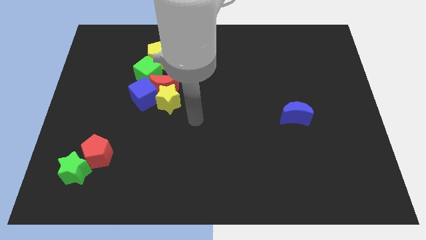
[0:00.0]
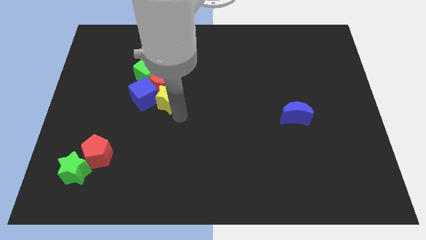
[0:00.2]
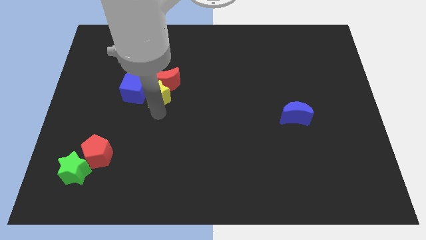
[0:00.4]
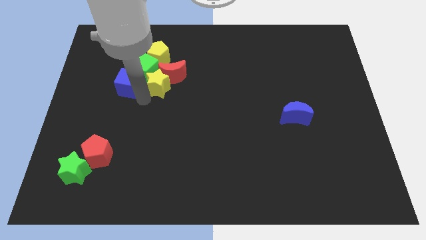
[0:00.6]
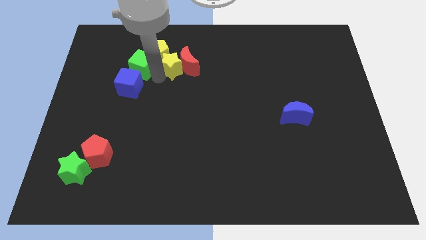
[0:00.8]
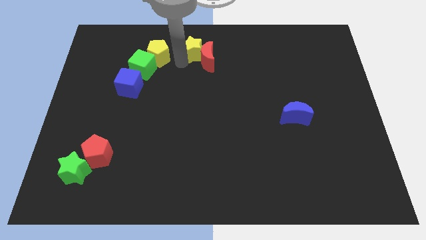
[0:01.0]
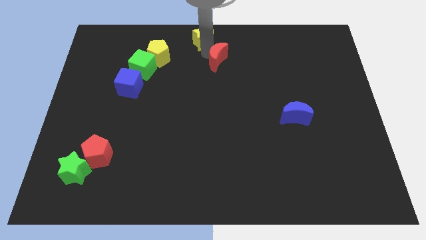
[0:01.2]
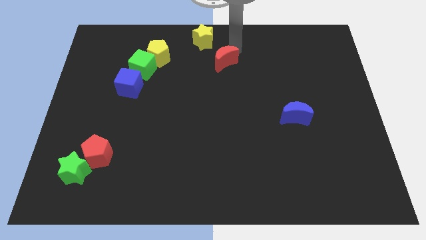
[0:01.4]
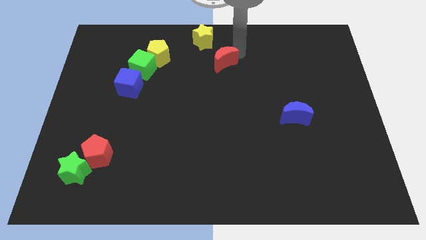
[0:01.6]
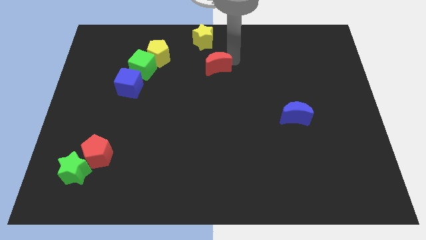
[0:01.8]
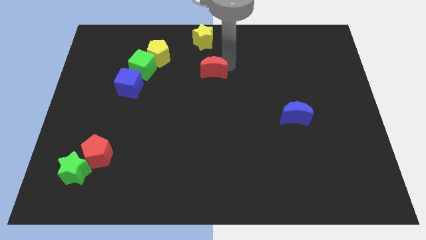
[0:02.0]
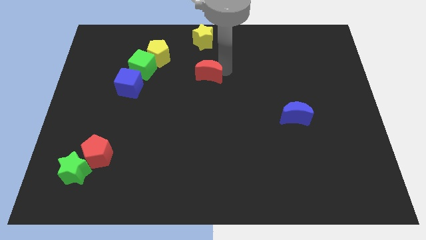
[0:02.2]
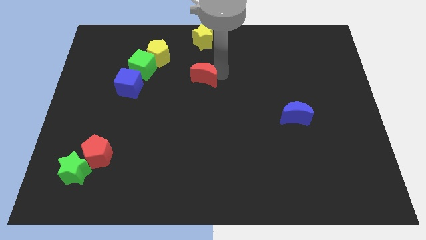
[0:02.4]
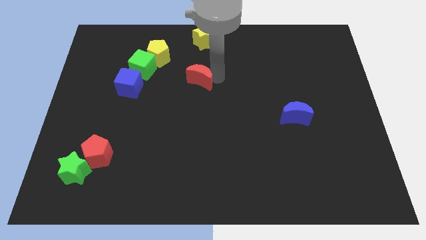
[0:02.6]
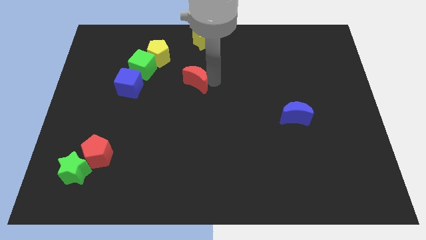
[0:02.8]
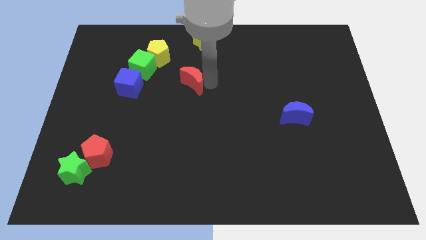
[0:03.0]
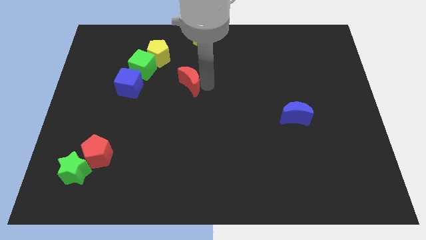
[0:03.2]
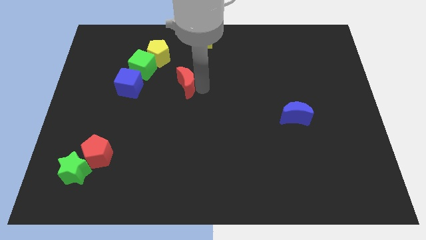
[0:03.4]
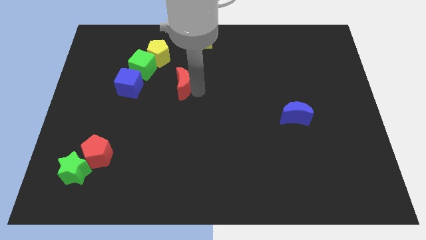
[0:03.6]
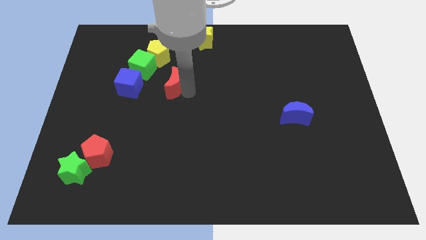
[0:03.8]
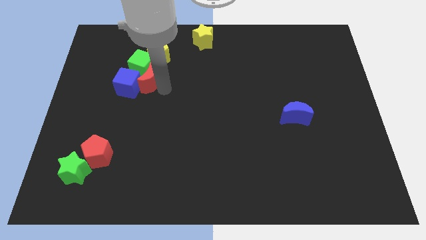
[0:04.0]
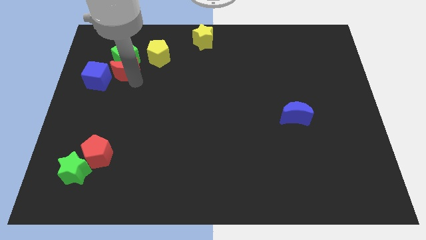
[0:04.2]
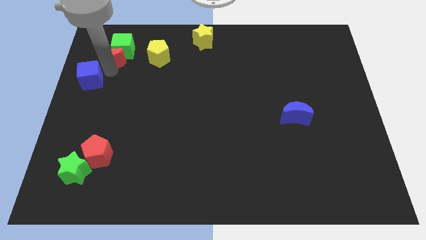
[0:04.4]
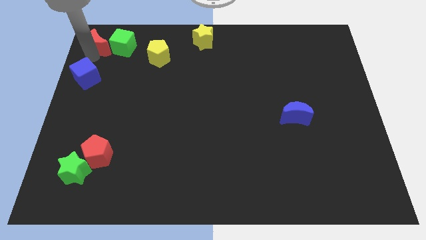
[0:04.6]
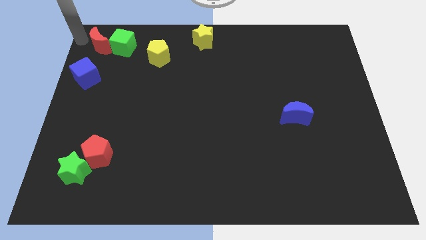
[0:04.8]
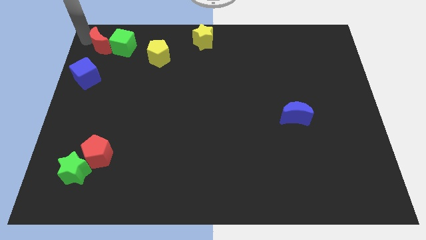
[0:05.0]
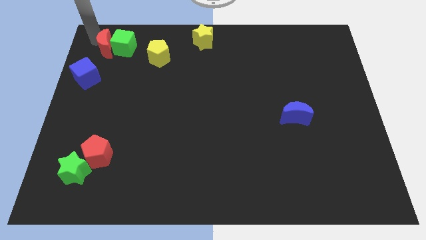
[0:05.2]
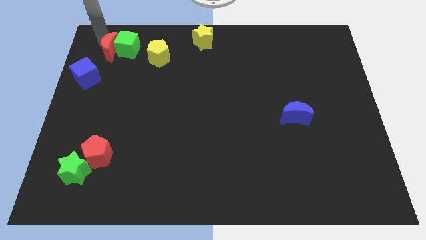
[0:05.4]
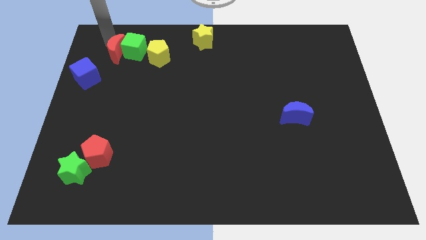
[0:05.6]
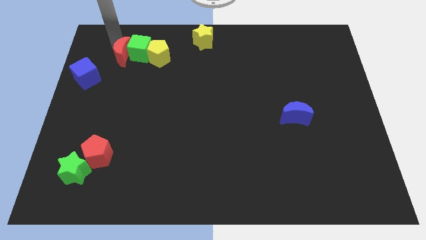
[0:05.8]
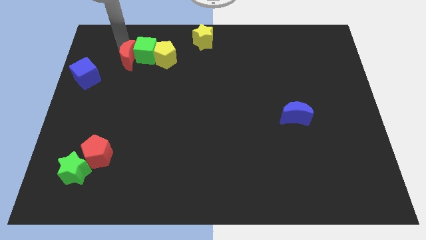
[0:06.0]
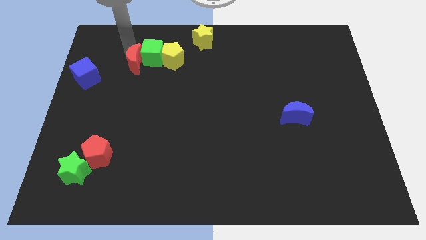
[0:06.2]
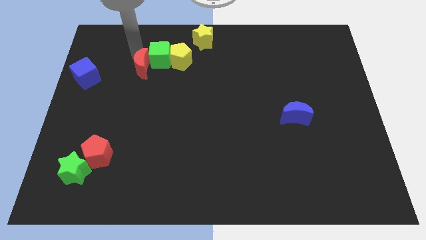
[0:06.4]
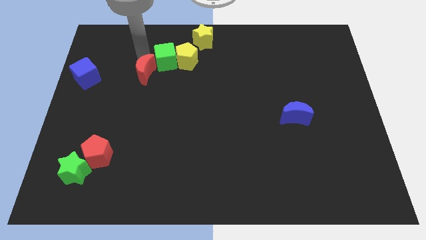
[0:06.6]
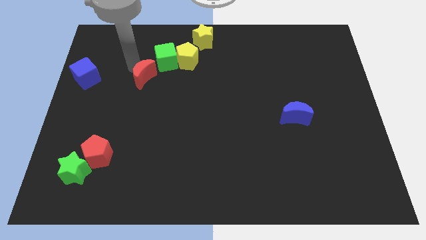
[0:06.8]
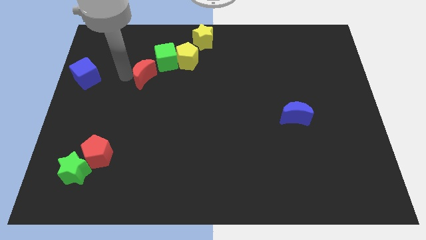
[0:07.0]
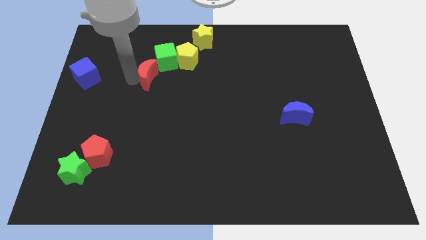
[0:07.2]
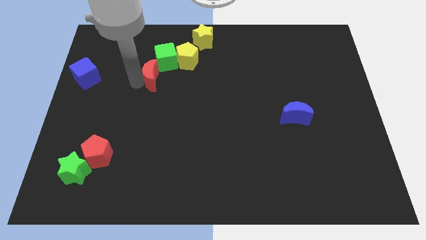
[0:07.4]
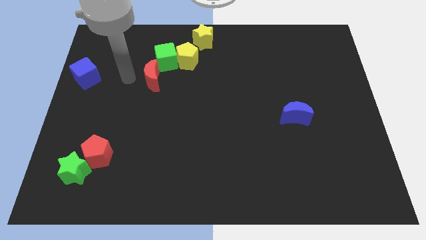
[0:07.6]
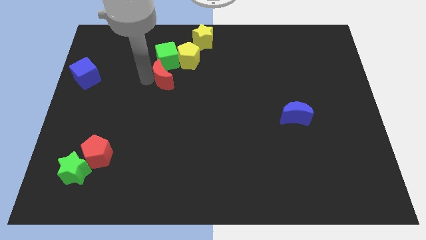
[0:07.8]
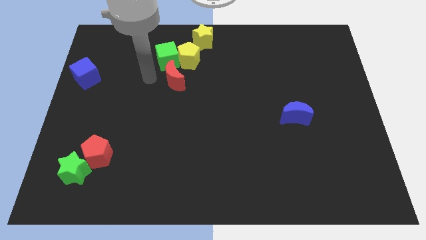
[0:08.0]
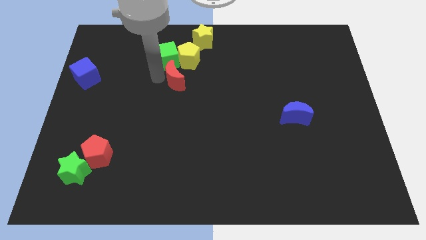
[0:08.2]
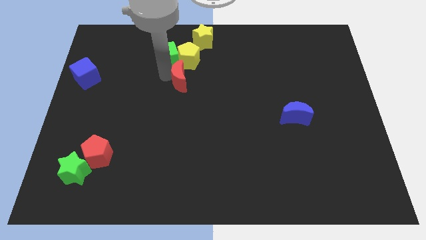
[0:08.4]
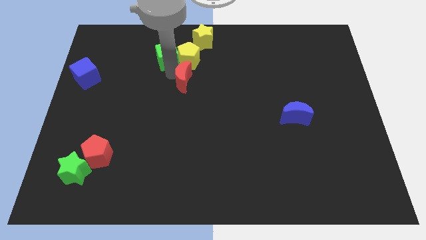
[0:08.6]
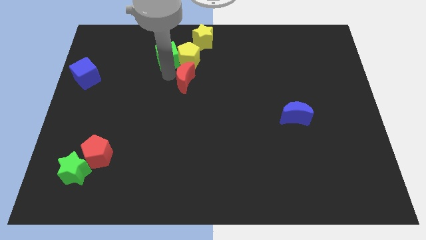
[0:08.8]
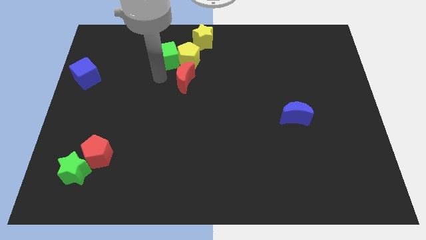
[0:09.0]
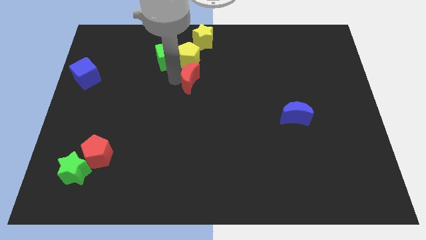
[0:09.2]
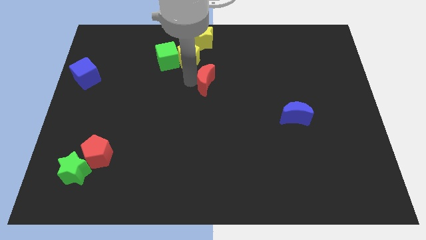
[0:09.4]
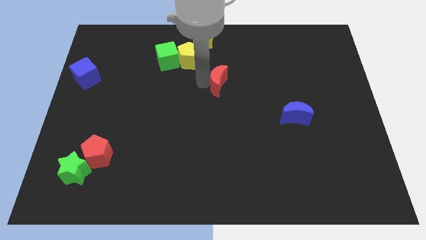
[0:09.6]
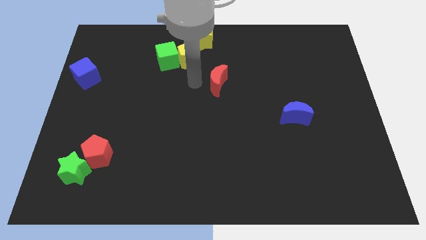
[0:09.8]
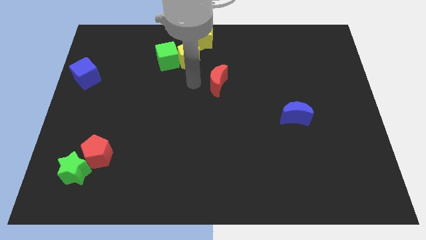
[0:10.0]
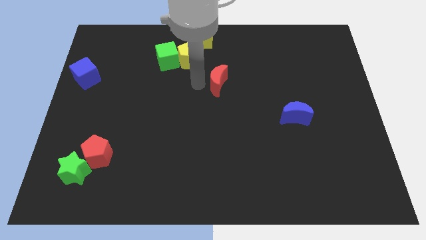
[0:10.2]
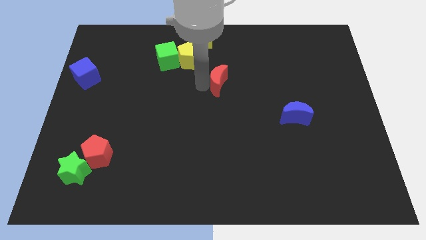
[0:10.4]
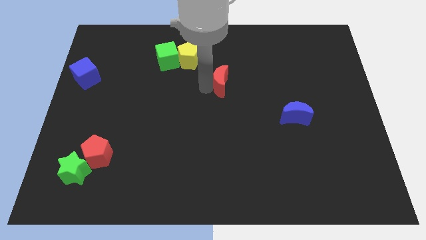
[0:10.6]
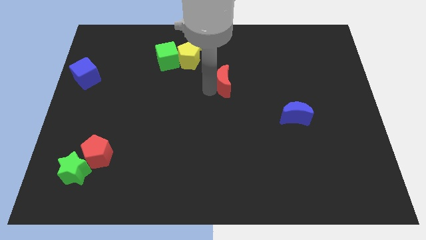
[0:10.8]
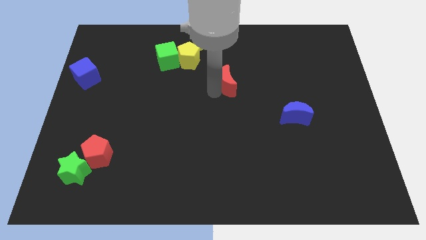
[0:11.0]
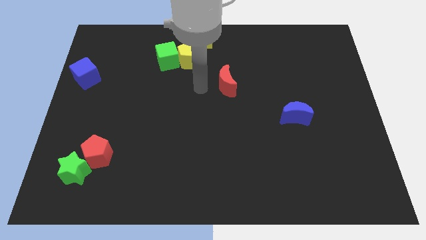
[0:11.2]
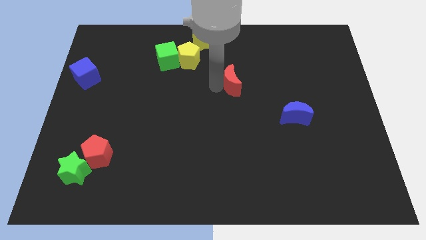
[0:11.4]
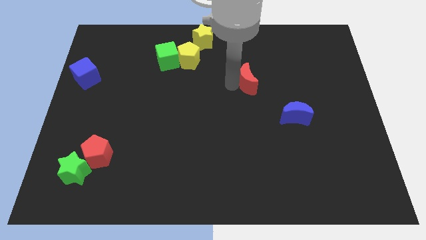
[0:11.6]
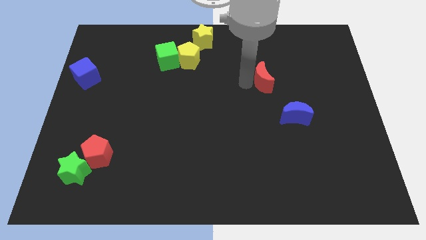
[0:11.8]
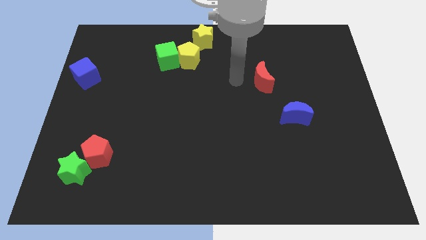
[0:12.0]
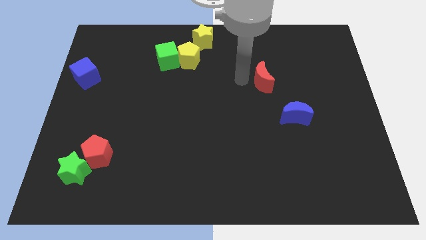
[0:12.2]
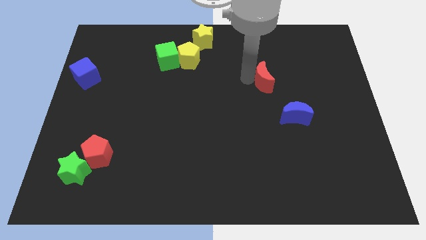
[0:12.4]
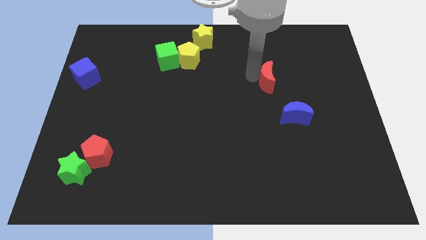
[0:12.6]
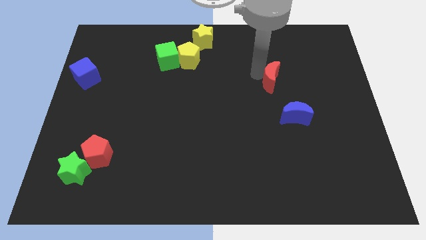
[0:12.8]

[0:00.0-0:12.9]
slide the red moon to the top side of the blue moon

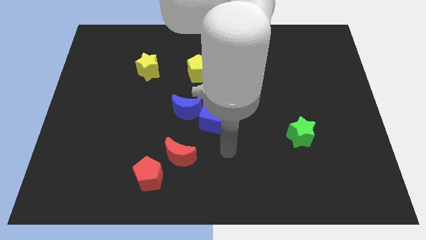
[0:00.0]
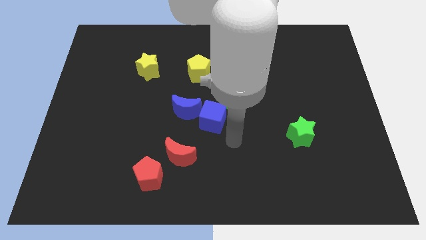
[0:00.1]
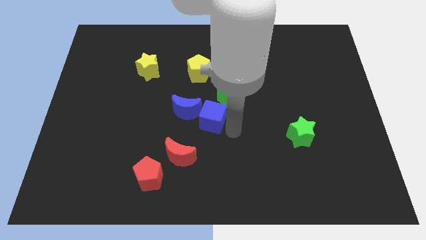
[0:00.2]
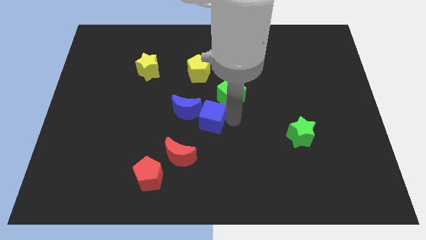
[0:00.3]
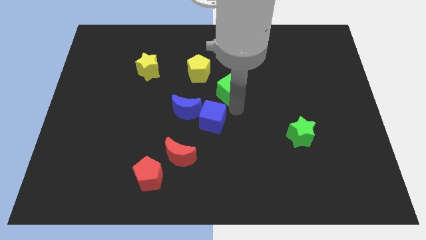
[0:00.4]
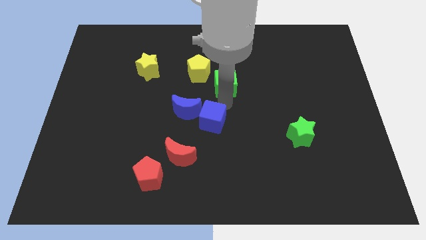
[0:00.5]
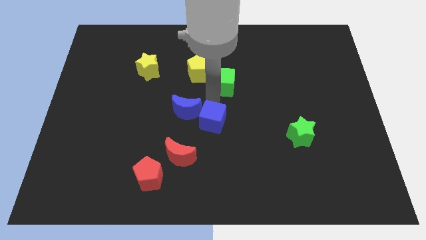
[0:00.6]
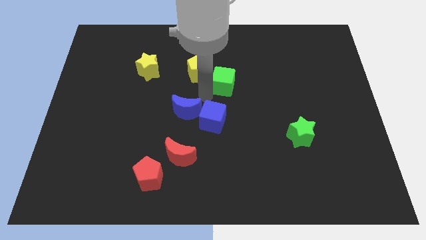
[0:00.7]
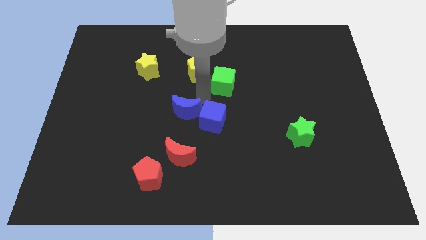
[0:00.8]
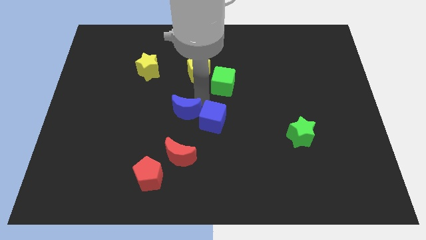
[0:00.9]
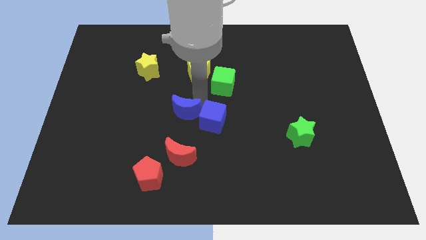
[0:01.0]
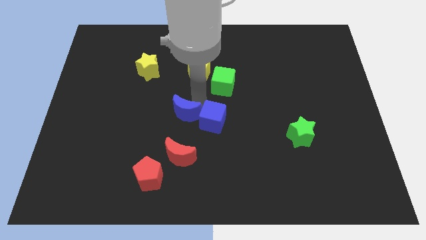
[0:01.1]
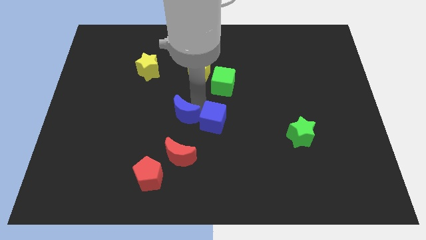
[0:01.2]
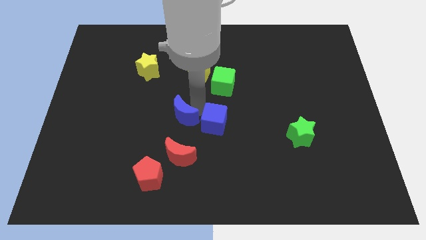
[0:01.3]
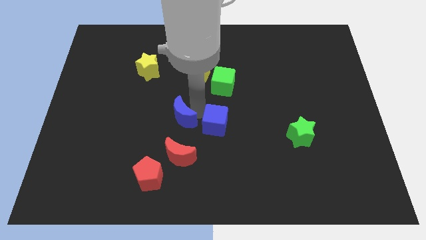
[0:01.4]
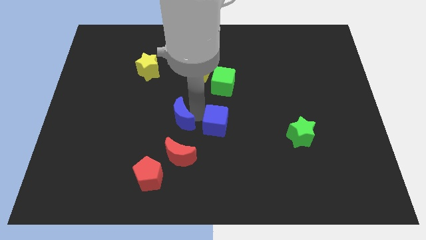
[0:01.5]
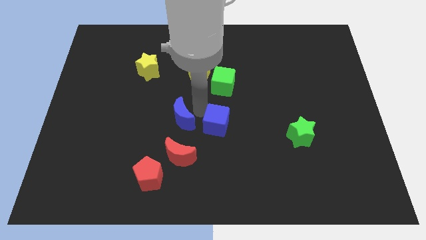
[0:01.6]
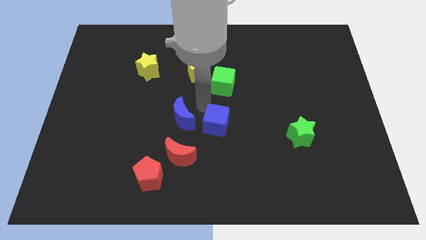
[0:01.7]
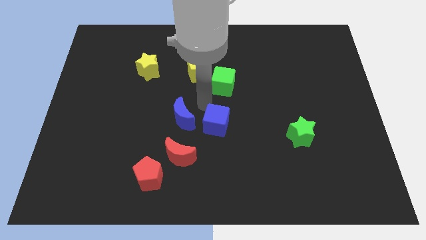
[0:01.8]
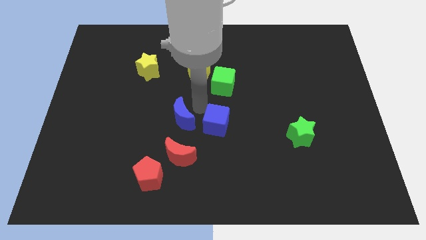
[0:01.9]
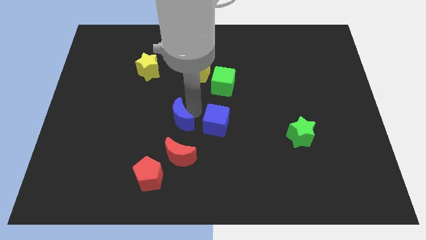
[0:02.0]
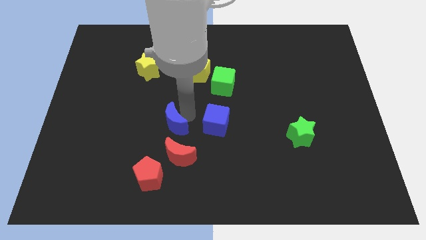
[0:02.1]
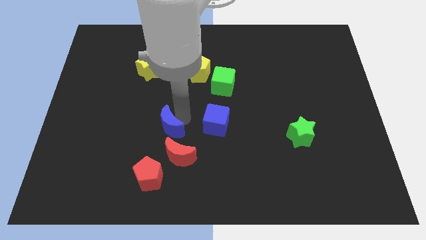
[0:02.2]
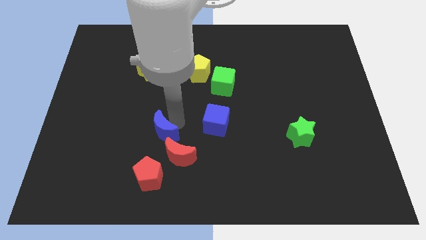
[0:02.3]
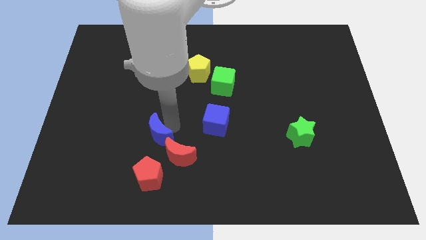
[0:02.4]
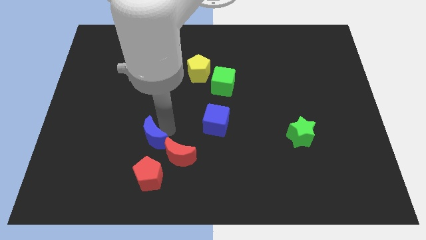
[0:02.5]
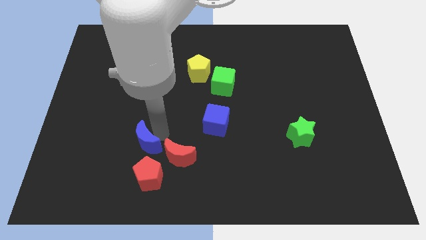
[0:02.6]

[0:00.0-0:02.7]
push the blue moon to the top left side of the red pentagon
